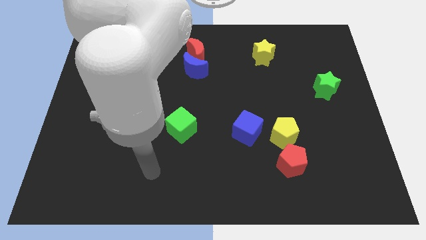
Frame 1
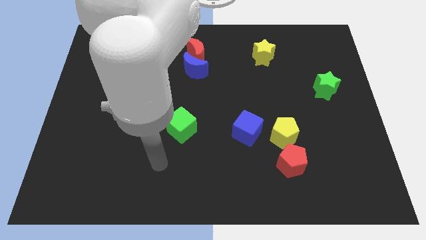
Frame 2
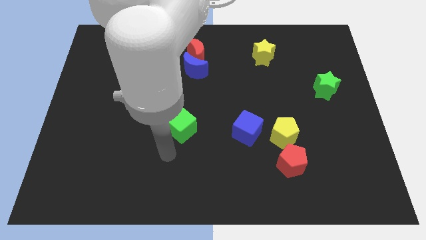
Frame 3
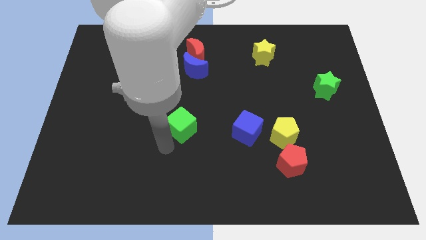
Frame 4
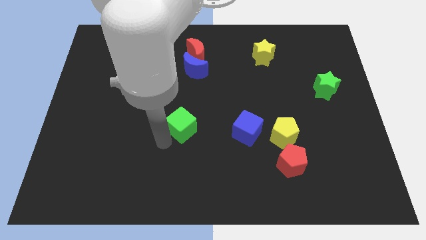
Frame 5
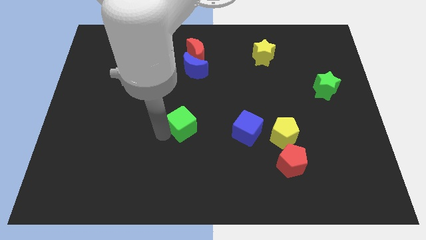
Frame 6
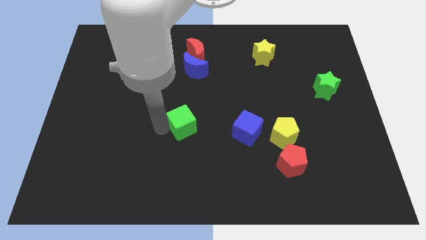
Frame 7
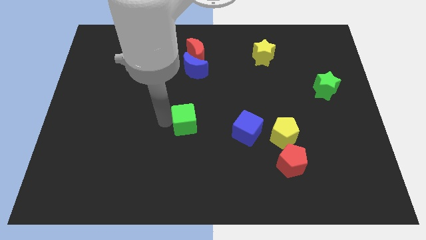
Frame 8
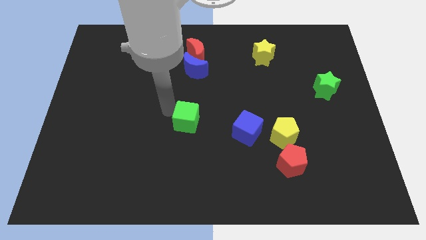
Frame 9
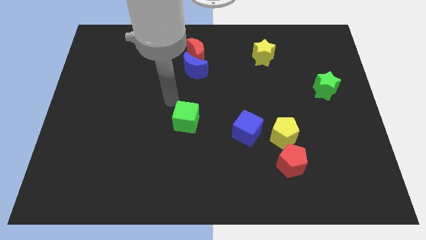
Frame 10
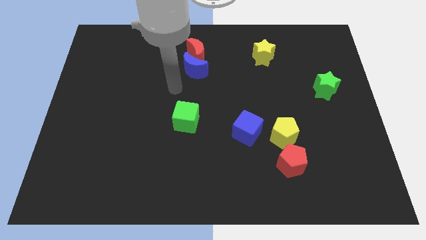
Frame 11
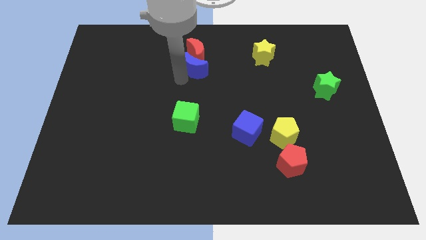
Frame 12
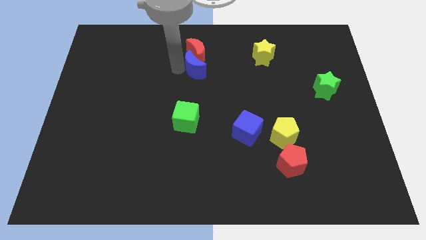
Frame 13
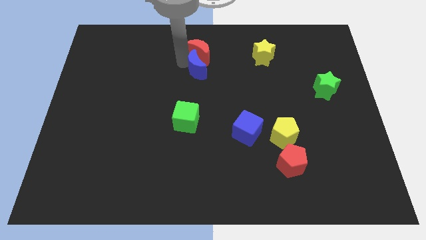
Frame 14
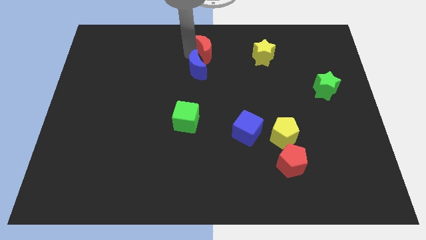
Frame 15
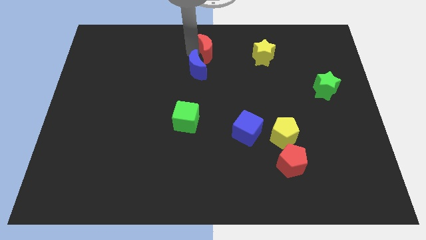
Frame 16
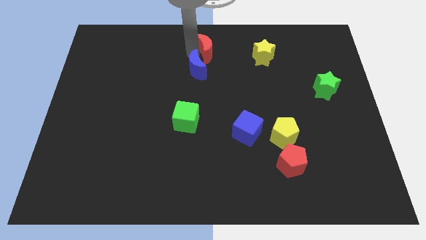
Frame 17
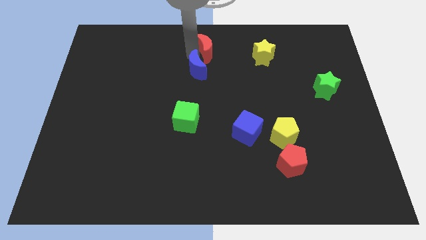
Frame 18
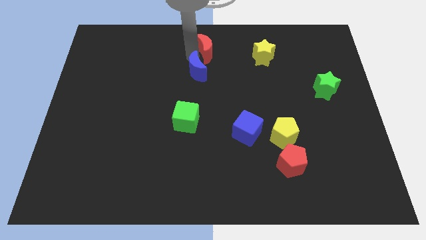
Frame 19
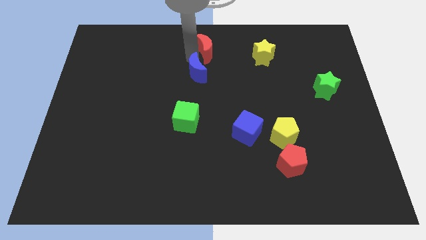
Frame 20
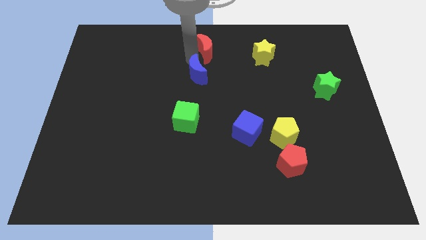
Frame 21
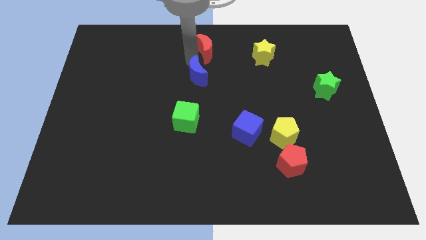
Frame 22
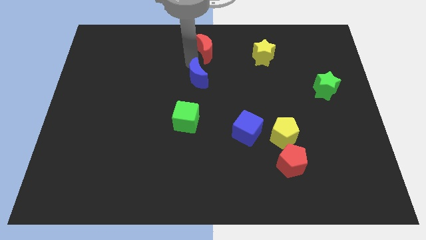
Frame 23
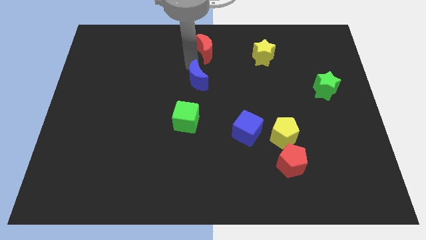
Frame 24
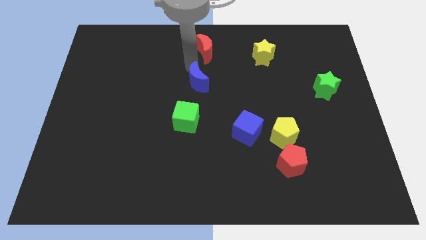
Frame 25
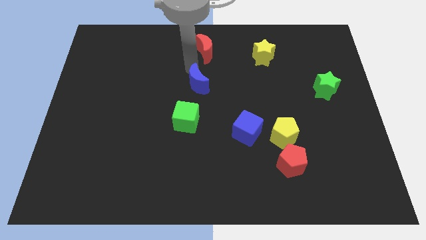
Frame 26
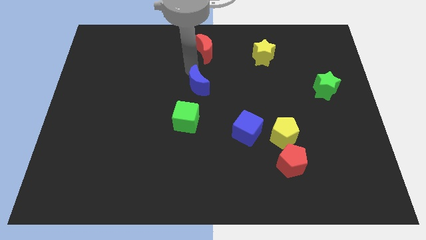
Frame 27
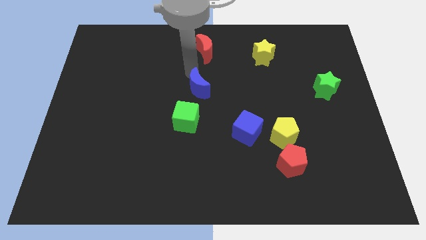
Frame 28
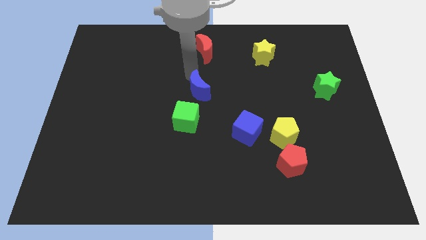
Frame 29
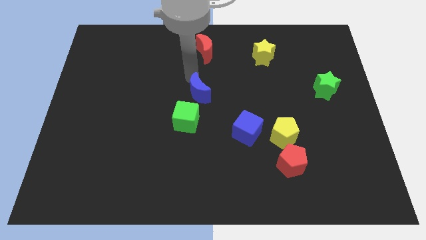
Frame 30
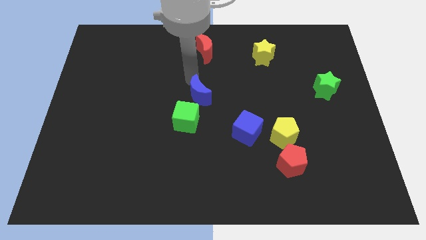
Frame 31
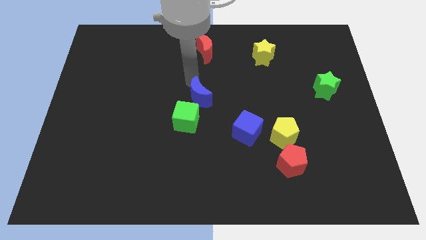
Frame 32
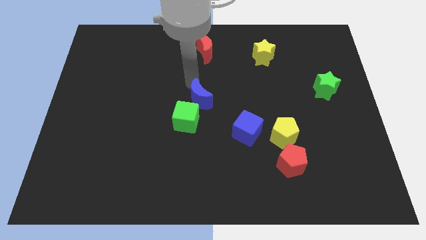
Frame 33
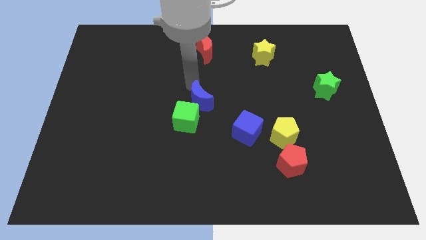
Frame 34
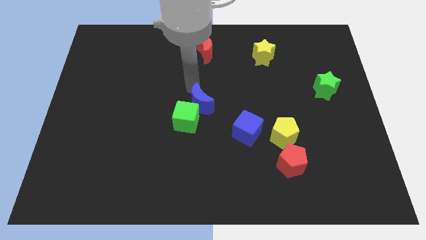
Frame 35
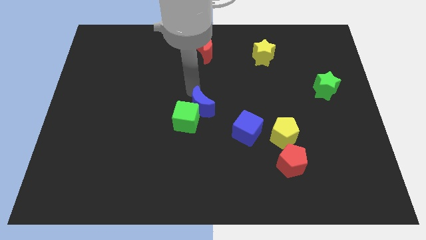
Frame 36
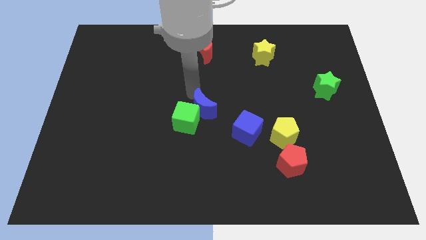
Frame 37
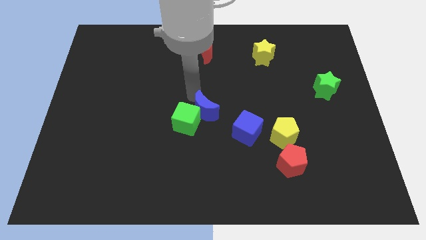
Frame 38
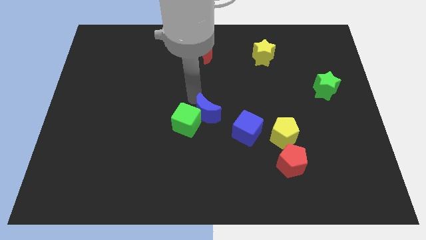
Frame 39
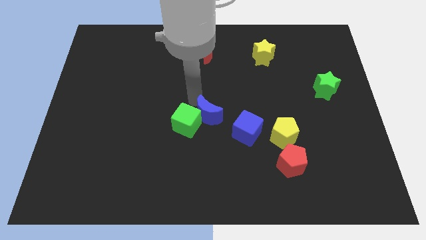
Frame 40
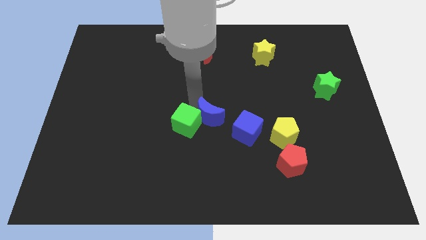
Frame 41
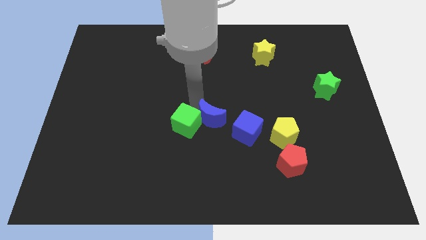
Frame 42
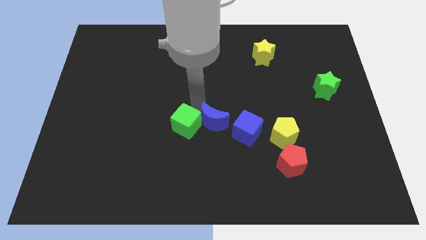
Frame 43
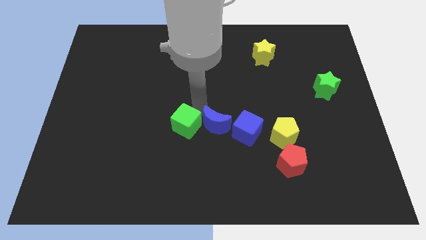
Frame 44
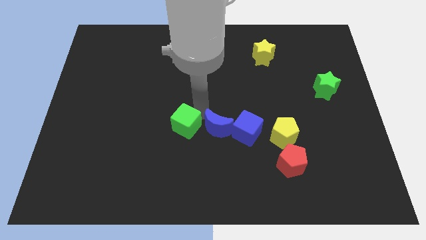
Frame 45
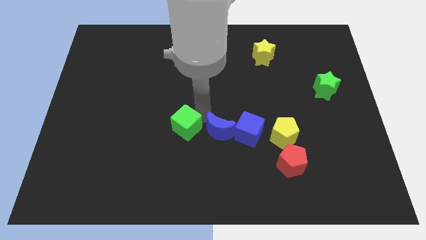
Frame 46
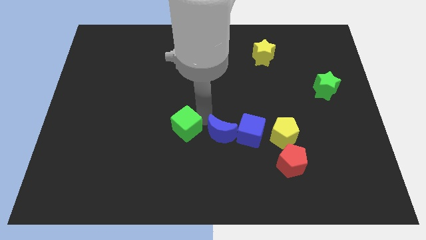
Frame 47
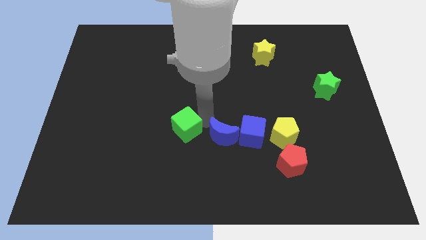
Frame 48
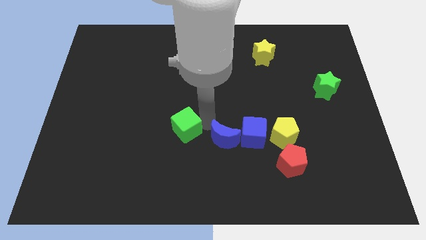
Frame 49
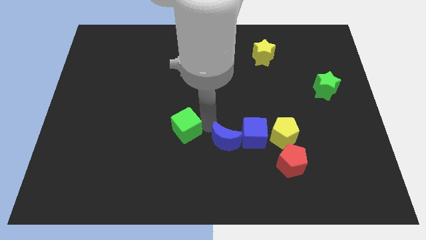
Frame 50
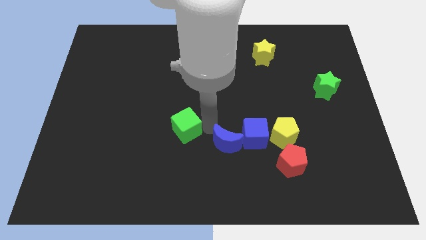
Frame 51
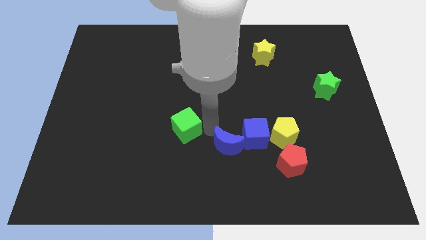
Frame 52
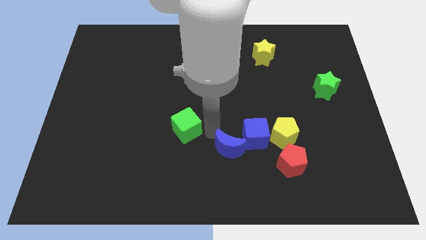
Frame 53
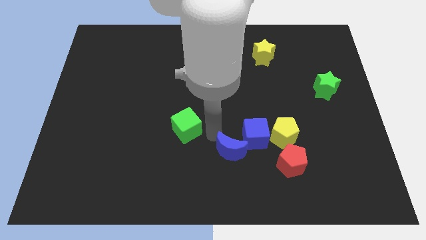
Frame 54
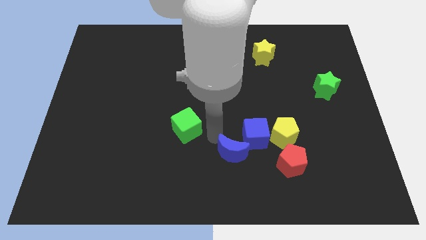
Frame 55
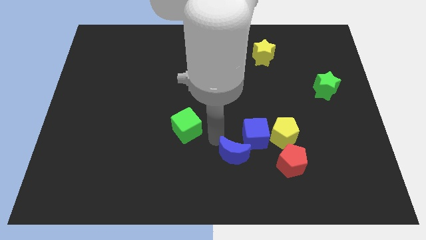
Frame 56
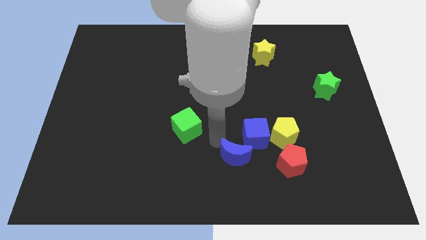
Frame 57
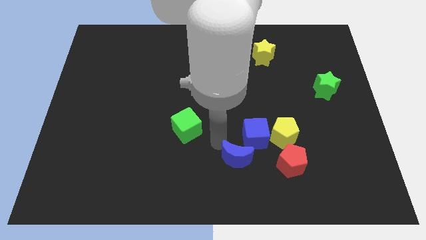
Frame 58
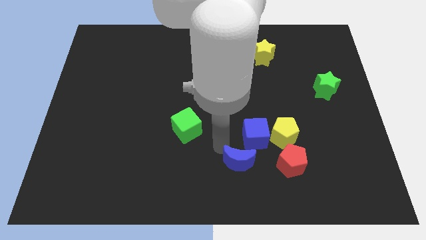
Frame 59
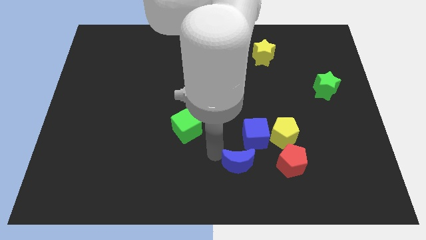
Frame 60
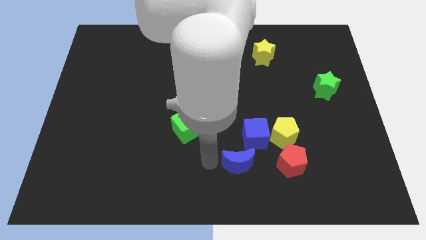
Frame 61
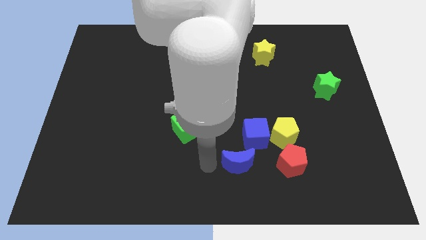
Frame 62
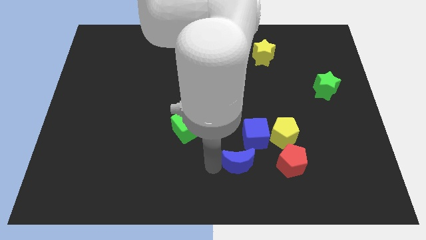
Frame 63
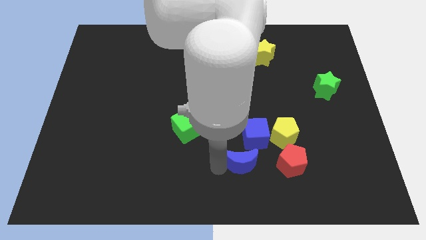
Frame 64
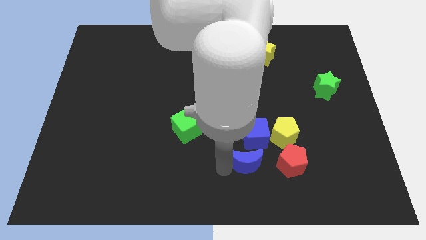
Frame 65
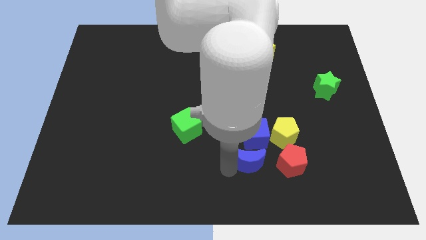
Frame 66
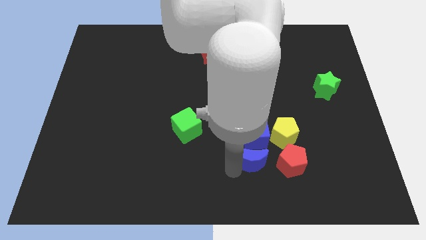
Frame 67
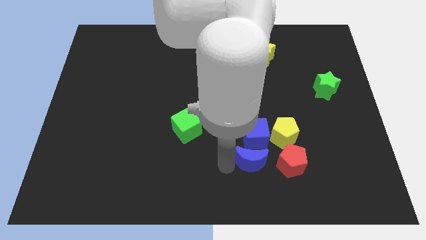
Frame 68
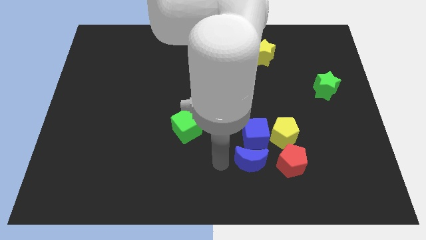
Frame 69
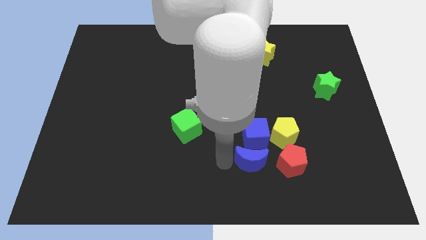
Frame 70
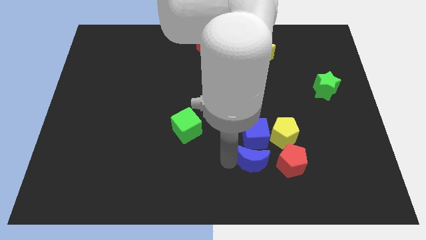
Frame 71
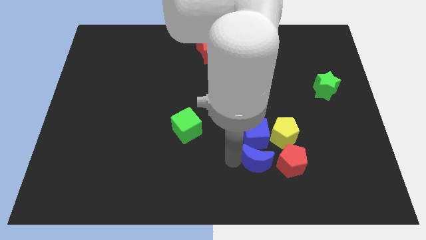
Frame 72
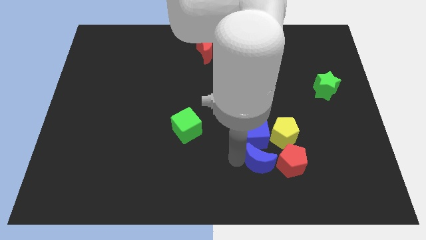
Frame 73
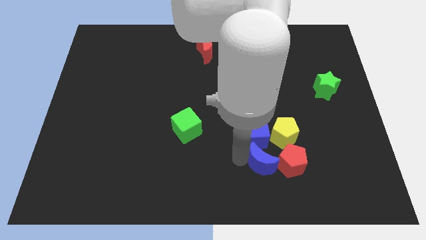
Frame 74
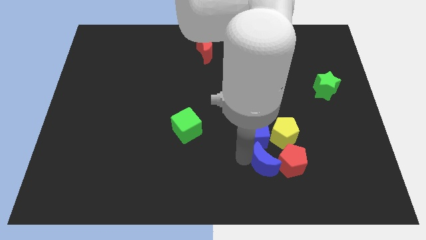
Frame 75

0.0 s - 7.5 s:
slide the blue moon to the red pentagon
